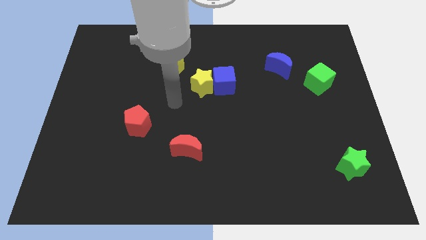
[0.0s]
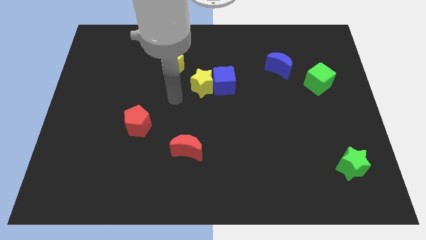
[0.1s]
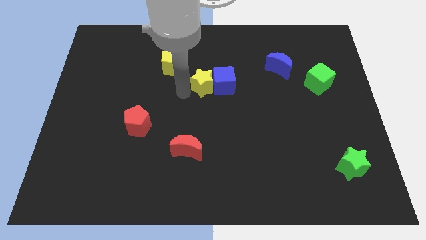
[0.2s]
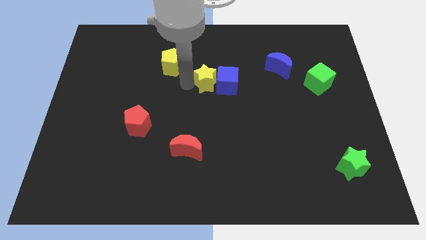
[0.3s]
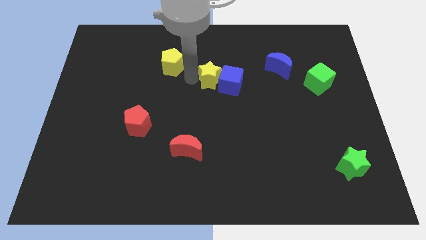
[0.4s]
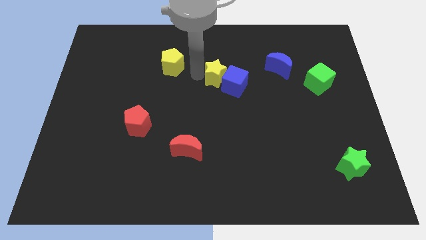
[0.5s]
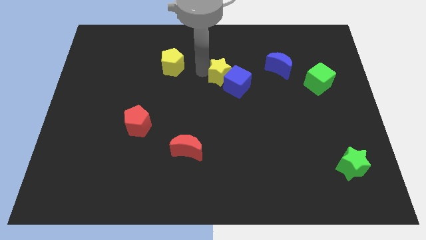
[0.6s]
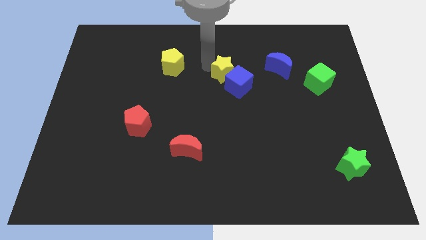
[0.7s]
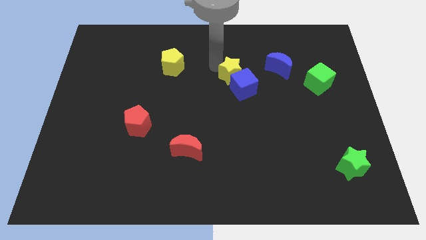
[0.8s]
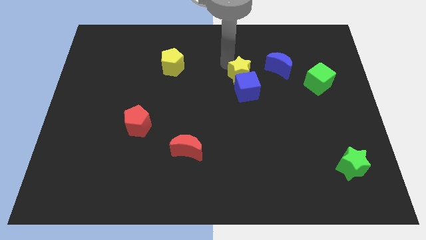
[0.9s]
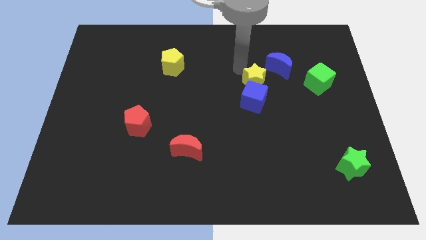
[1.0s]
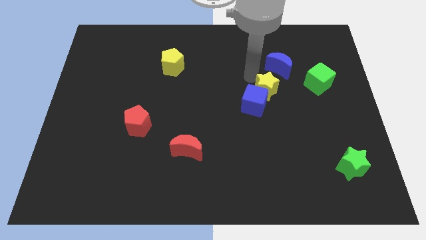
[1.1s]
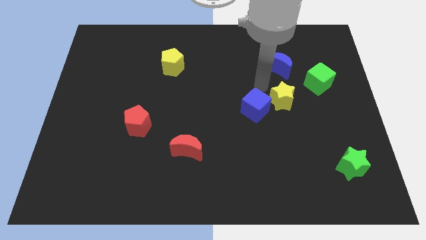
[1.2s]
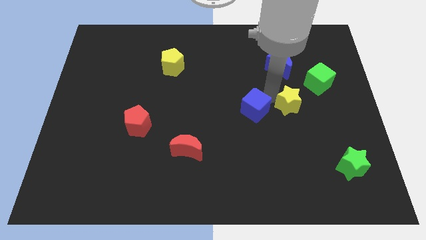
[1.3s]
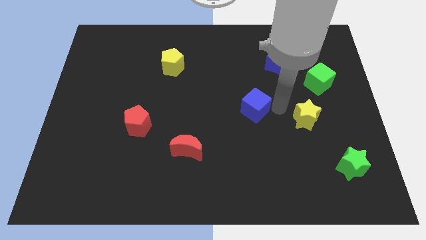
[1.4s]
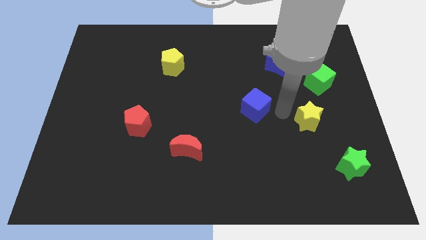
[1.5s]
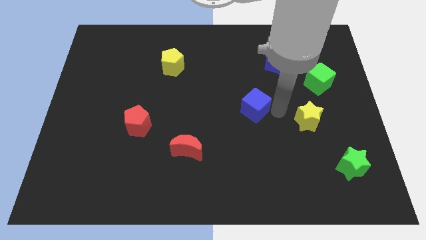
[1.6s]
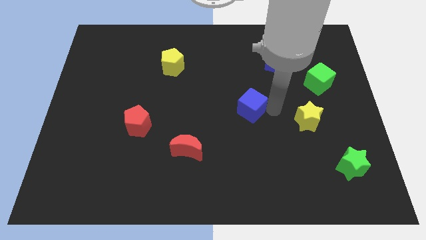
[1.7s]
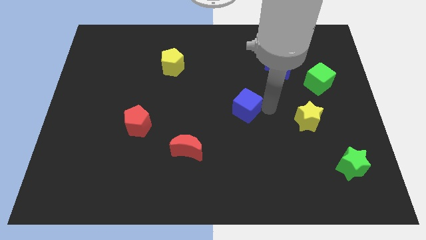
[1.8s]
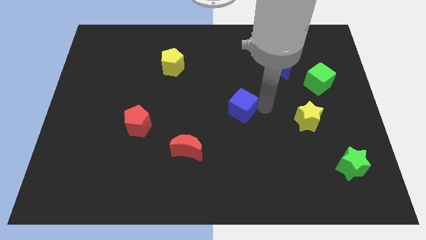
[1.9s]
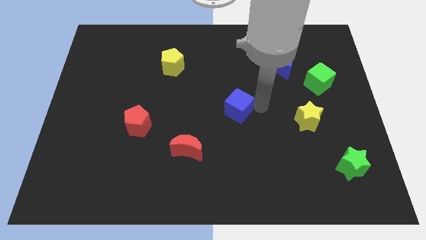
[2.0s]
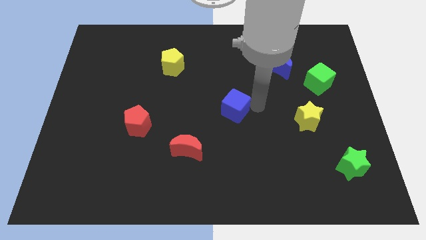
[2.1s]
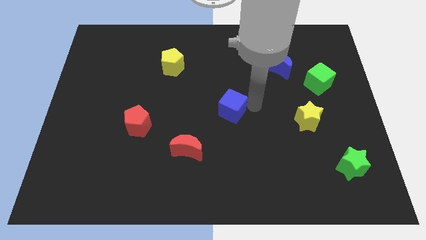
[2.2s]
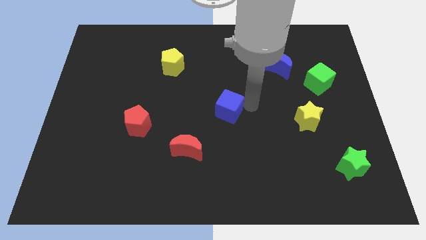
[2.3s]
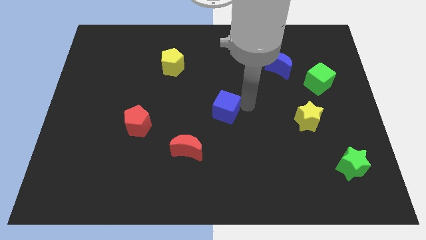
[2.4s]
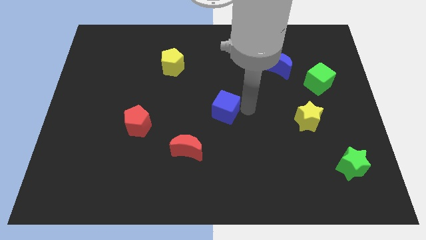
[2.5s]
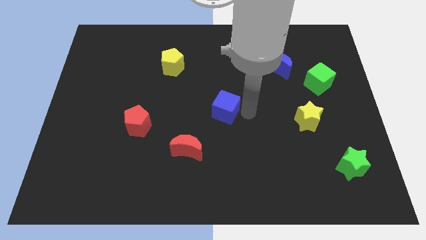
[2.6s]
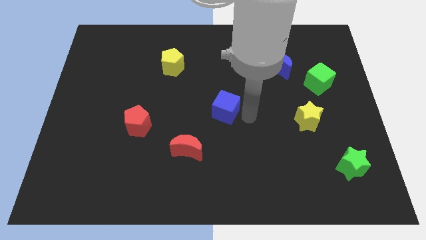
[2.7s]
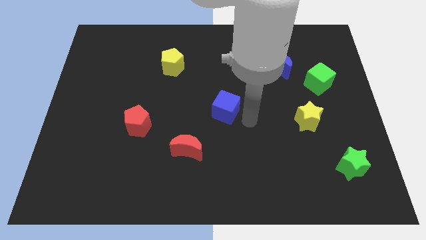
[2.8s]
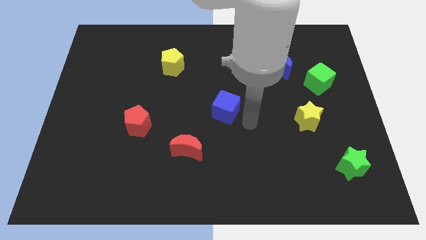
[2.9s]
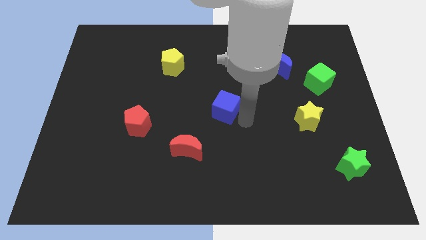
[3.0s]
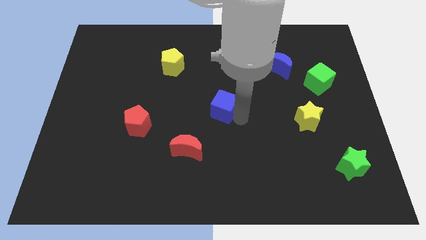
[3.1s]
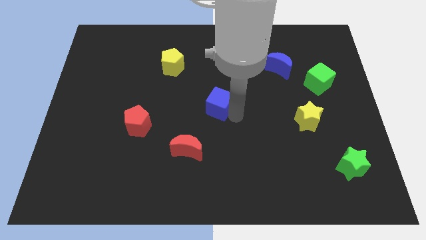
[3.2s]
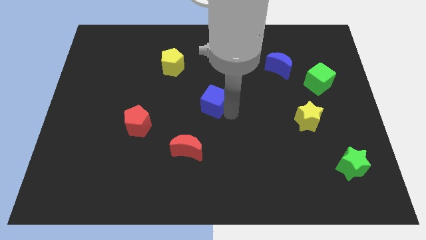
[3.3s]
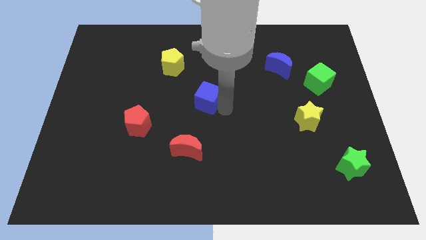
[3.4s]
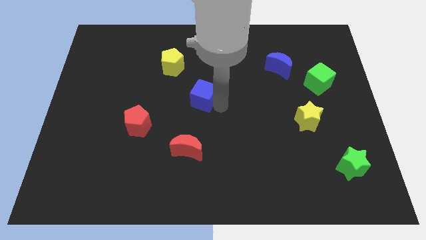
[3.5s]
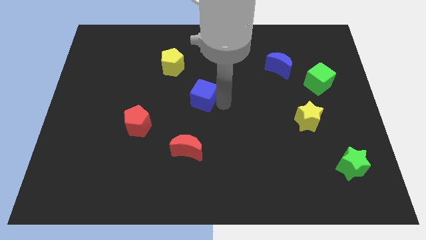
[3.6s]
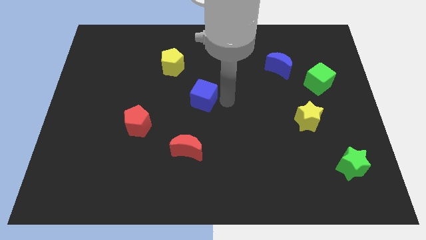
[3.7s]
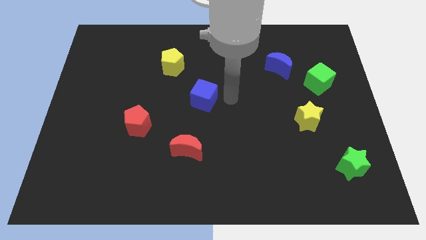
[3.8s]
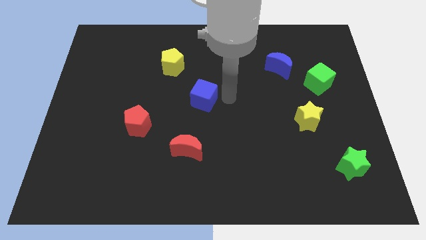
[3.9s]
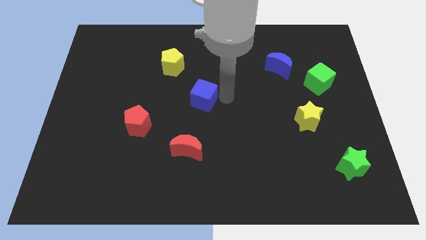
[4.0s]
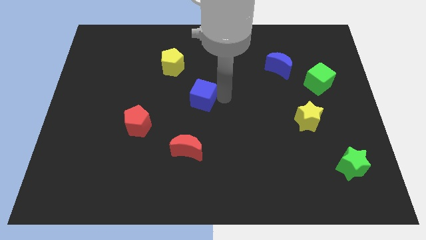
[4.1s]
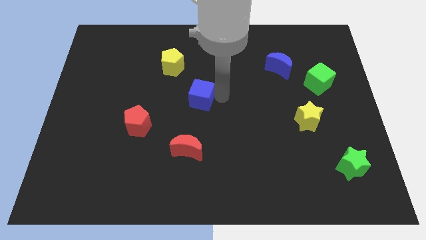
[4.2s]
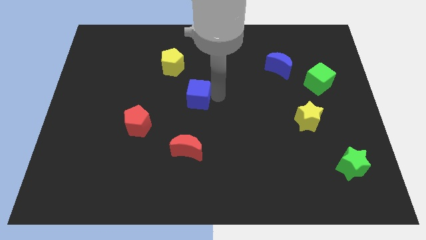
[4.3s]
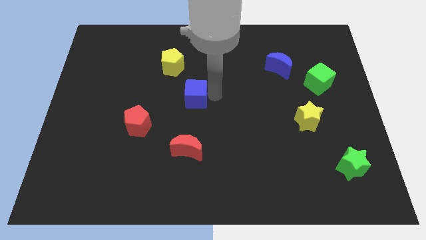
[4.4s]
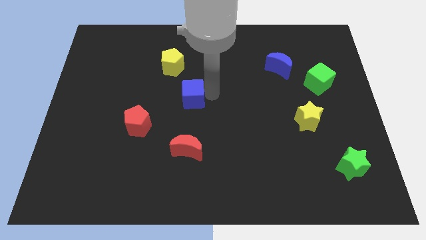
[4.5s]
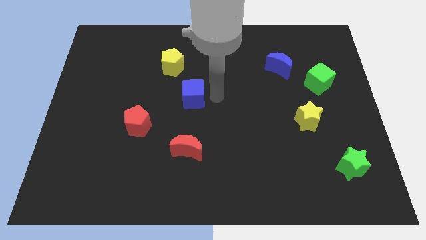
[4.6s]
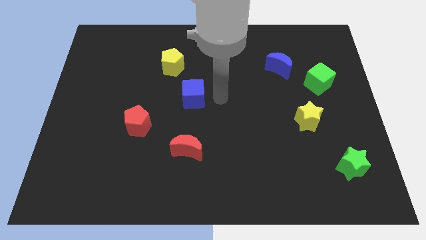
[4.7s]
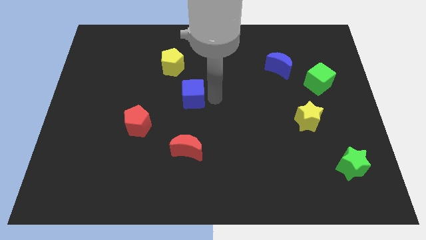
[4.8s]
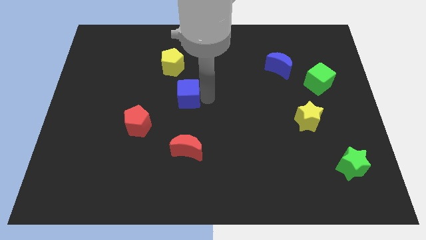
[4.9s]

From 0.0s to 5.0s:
slide the blue cube to the bottom of the yellow pentagon

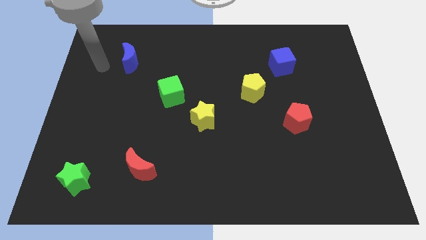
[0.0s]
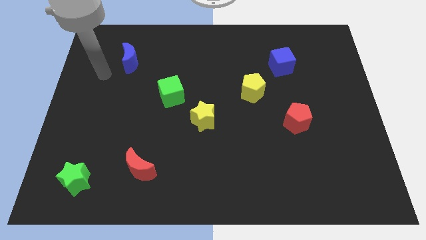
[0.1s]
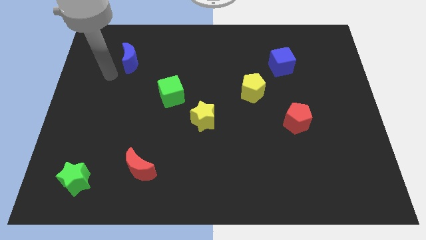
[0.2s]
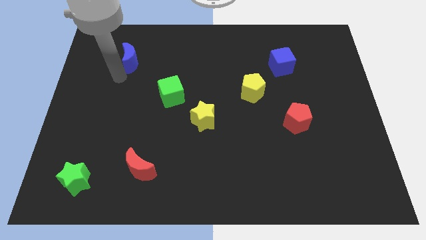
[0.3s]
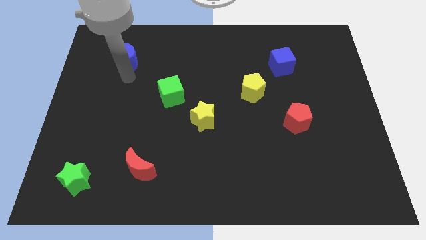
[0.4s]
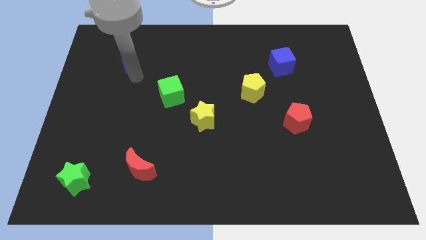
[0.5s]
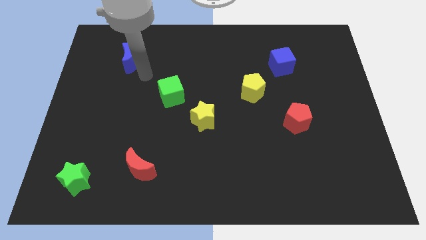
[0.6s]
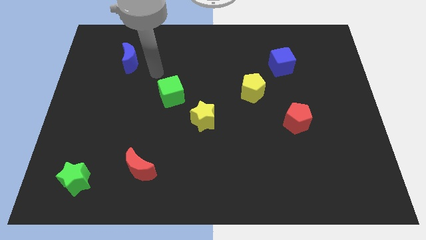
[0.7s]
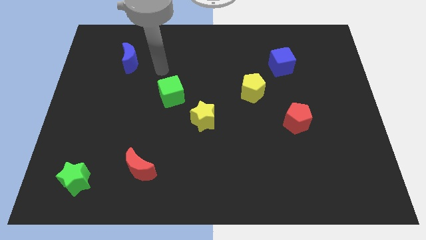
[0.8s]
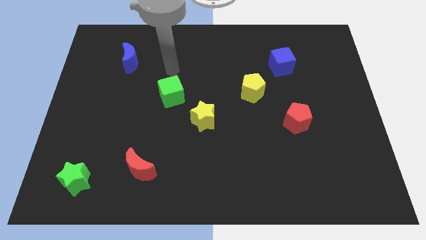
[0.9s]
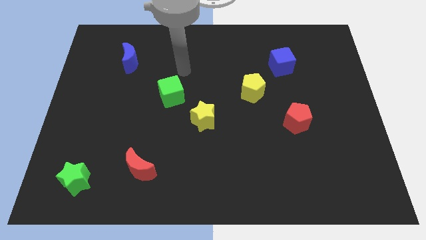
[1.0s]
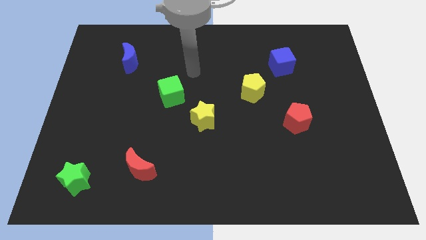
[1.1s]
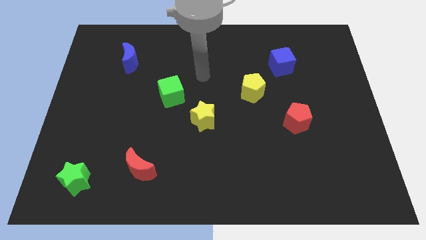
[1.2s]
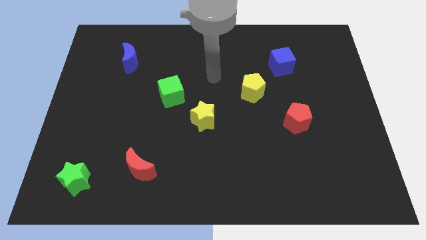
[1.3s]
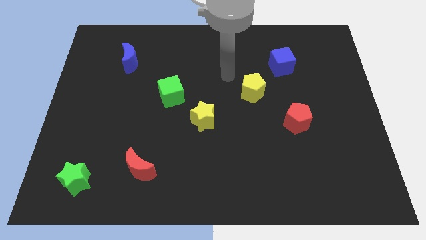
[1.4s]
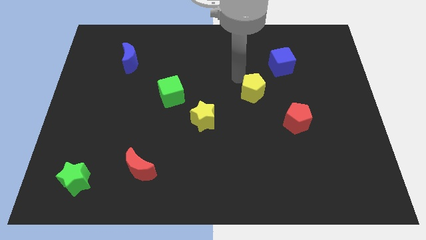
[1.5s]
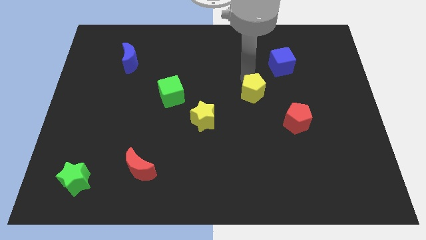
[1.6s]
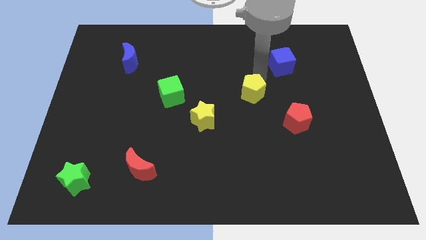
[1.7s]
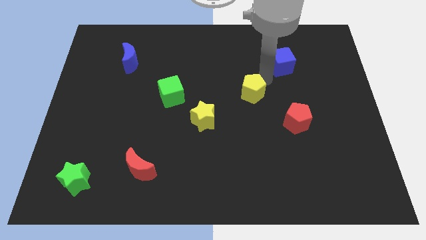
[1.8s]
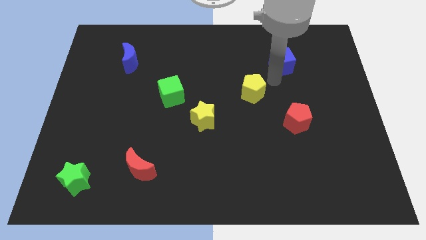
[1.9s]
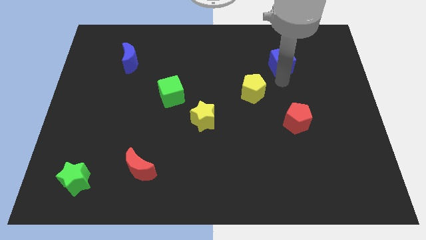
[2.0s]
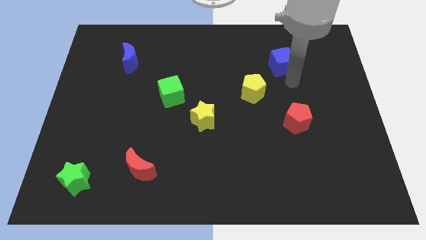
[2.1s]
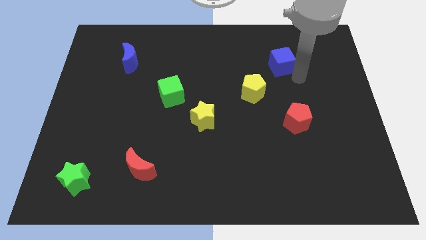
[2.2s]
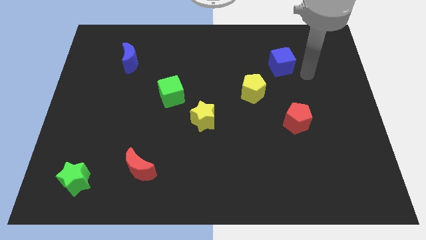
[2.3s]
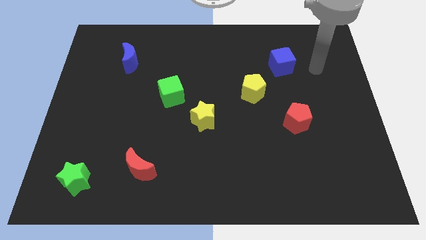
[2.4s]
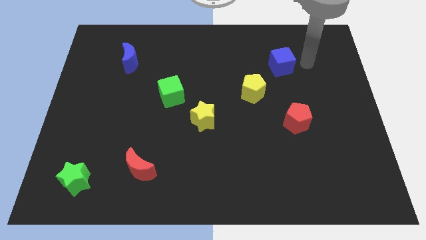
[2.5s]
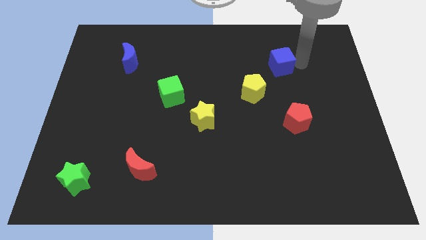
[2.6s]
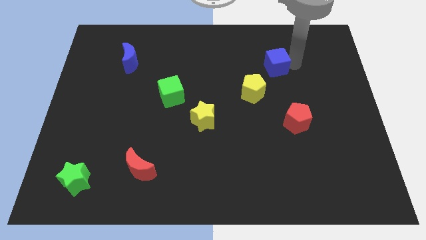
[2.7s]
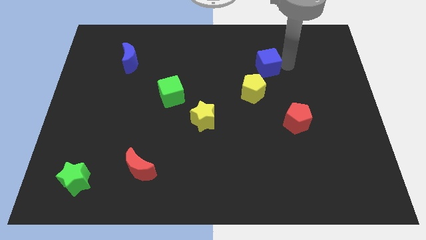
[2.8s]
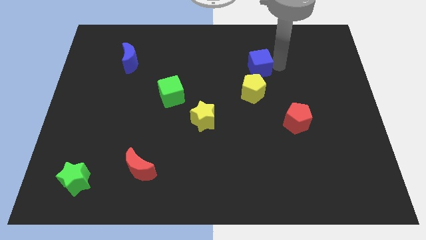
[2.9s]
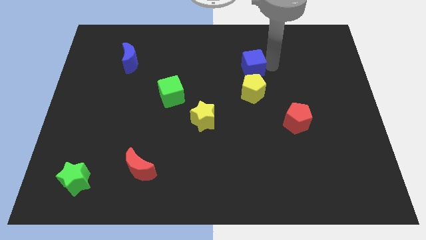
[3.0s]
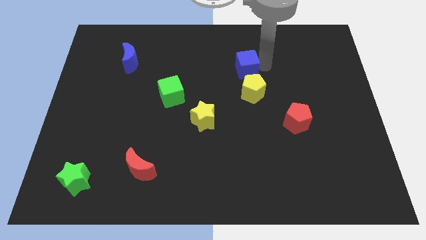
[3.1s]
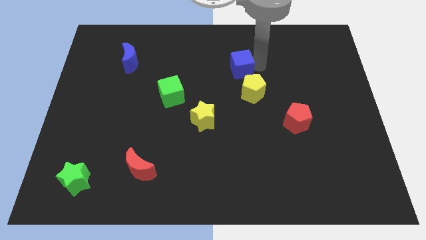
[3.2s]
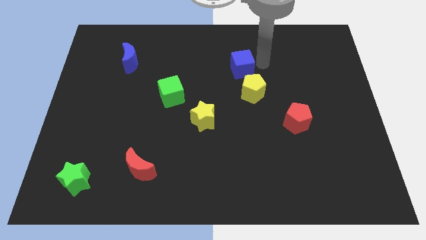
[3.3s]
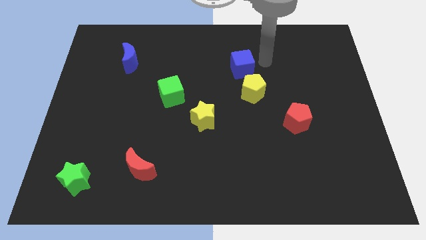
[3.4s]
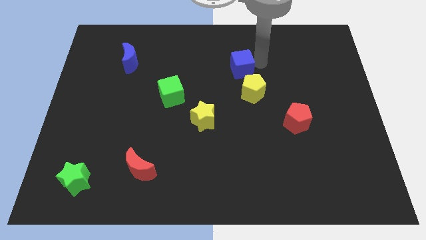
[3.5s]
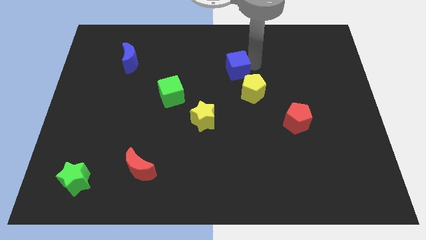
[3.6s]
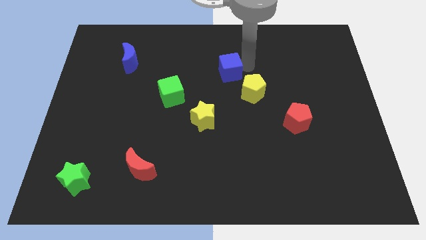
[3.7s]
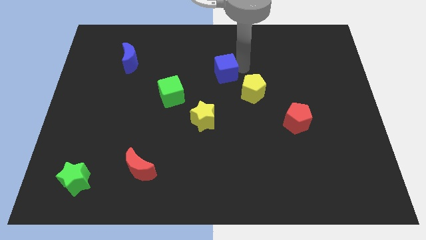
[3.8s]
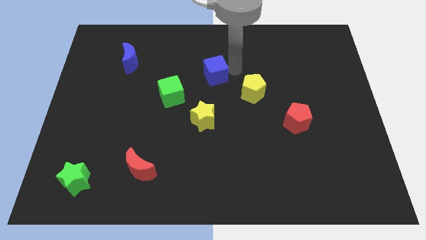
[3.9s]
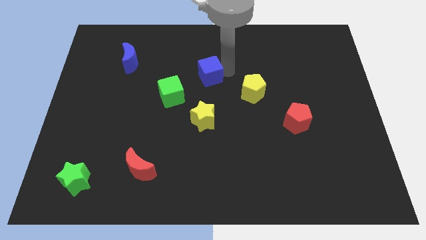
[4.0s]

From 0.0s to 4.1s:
slide the blue cube diagonally up and to the right of the green cube
